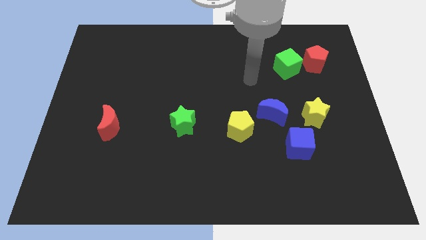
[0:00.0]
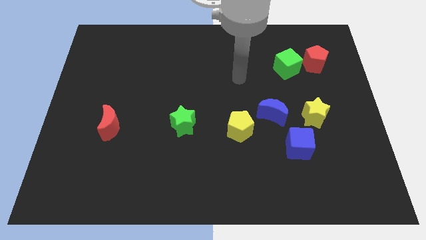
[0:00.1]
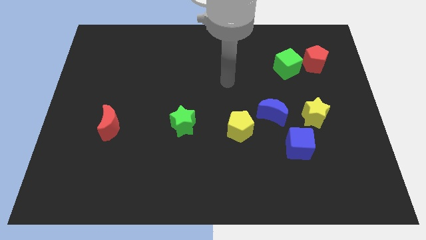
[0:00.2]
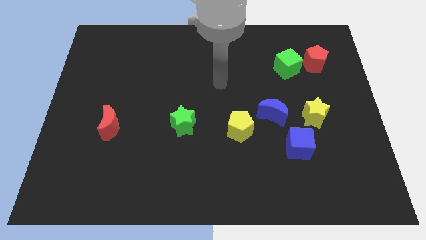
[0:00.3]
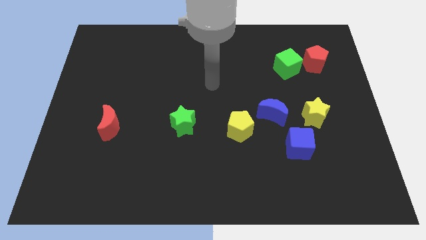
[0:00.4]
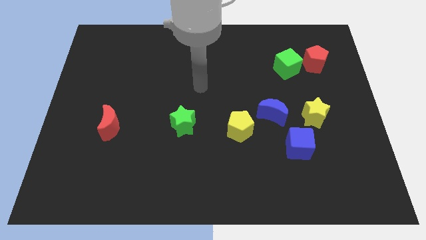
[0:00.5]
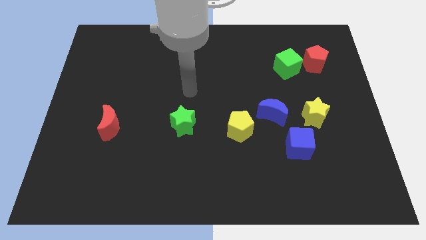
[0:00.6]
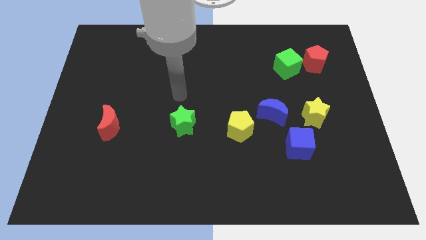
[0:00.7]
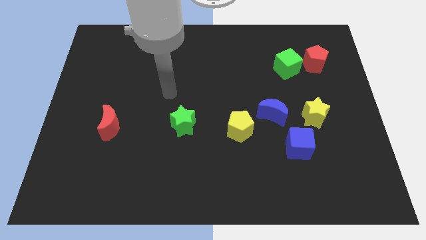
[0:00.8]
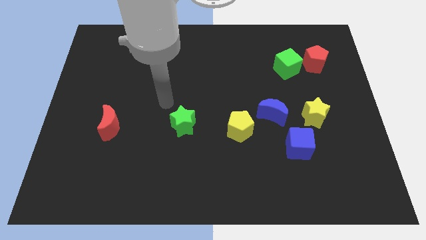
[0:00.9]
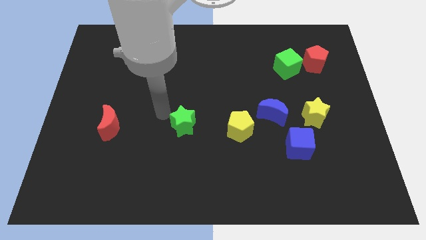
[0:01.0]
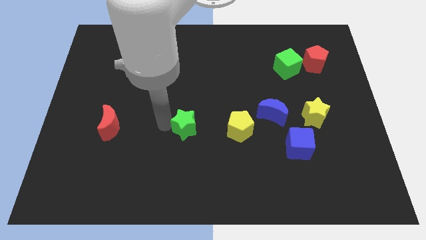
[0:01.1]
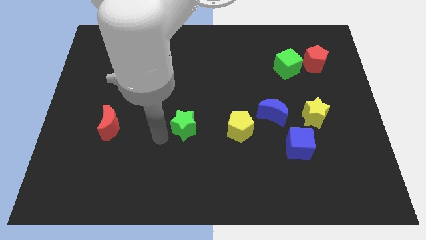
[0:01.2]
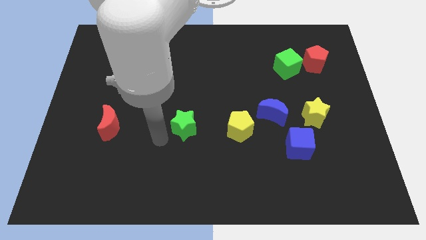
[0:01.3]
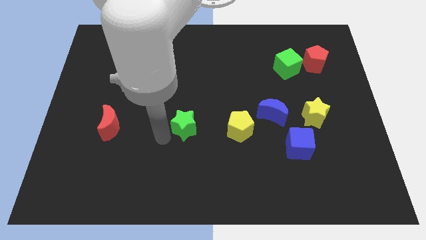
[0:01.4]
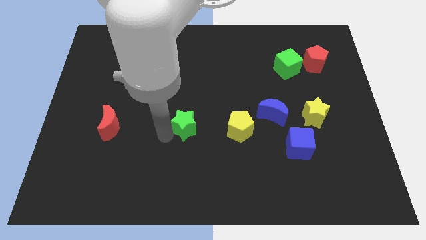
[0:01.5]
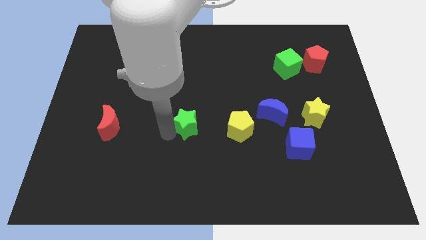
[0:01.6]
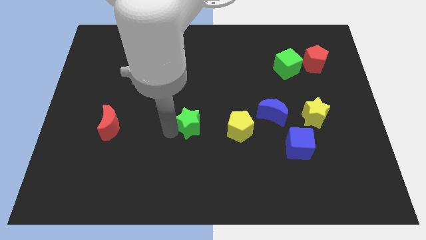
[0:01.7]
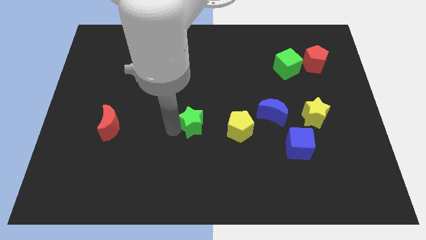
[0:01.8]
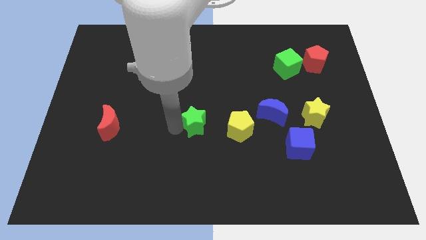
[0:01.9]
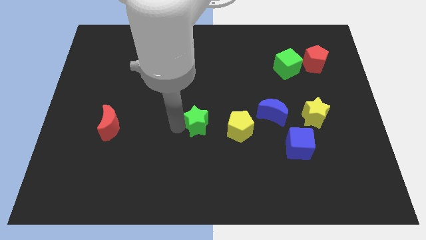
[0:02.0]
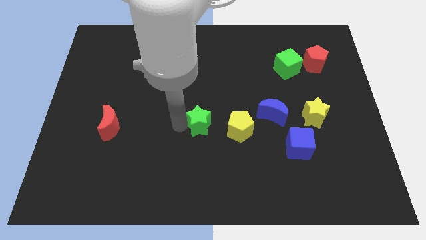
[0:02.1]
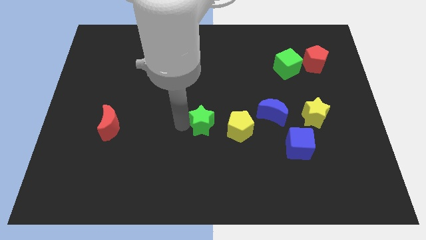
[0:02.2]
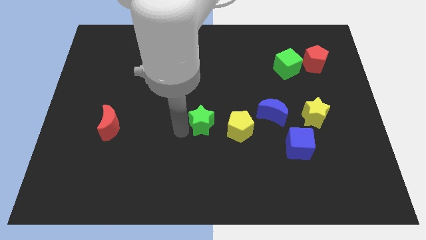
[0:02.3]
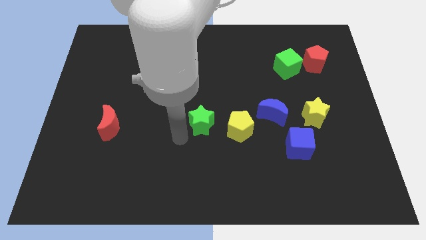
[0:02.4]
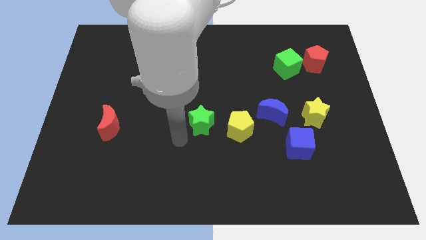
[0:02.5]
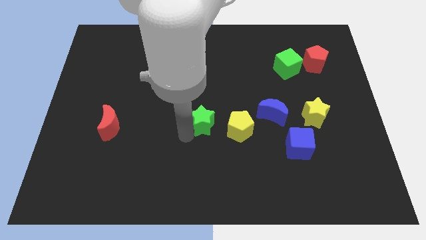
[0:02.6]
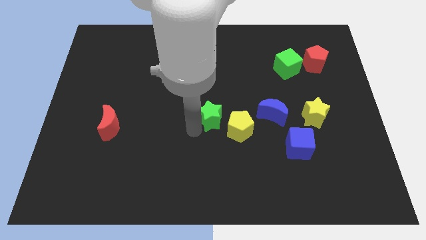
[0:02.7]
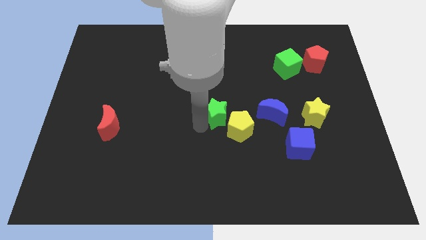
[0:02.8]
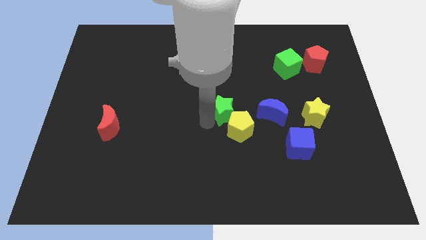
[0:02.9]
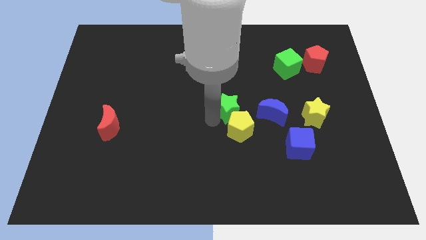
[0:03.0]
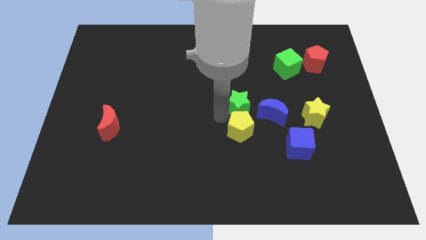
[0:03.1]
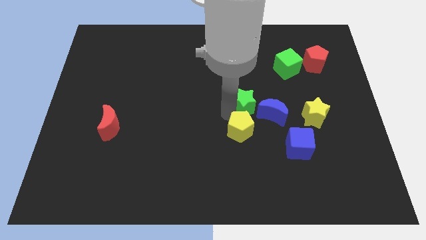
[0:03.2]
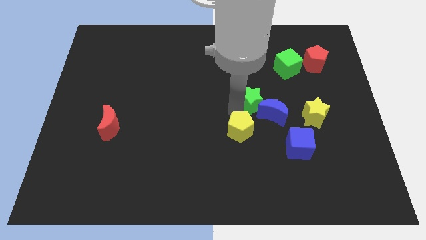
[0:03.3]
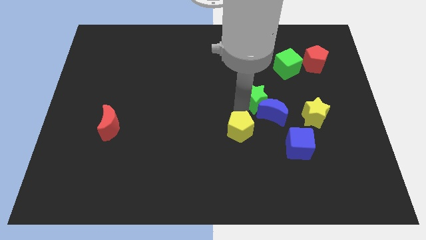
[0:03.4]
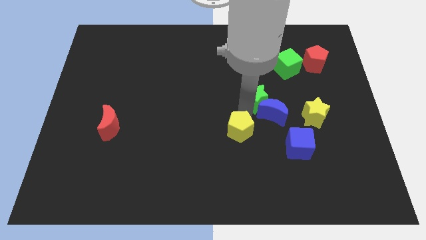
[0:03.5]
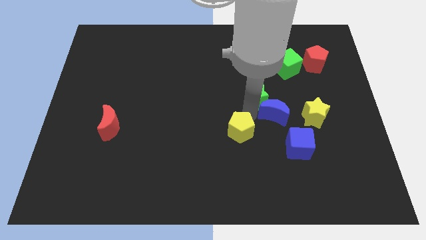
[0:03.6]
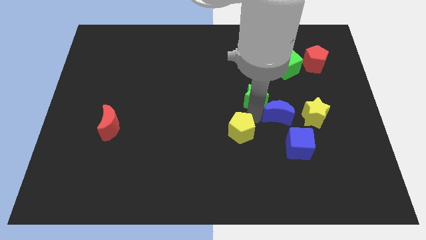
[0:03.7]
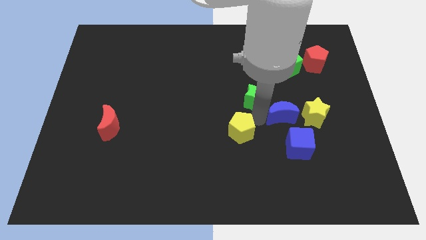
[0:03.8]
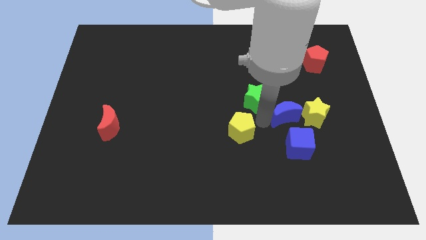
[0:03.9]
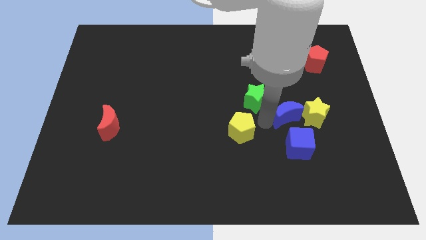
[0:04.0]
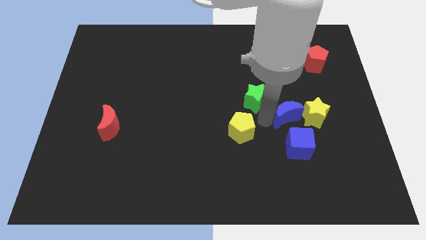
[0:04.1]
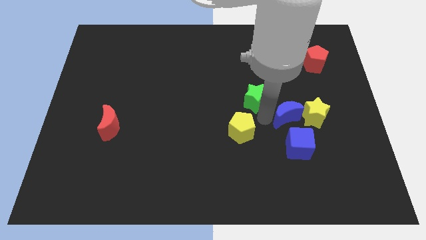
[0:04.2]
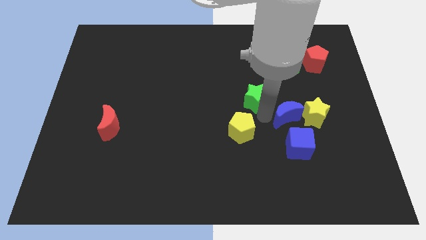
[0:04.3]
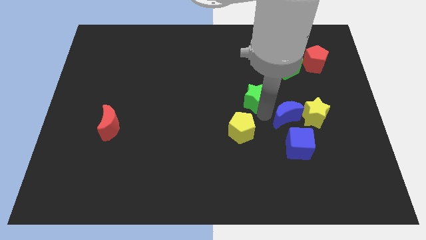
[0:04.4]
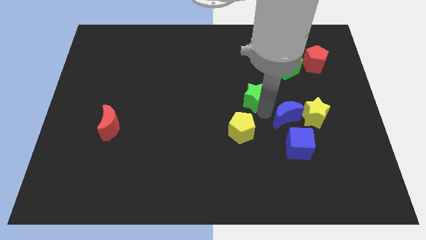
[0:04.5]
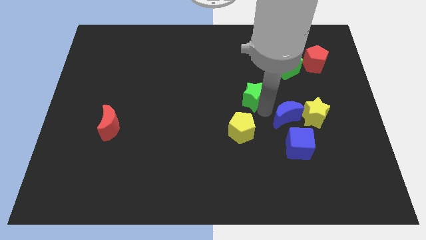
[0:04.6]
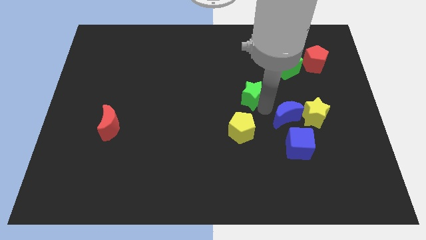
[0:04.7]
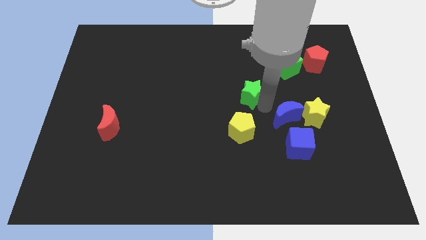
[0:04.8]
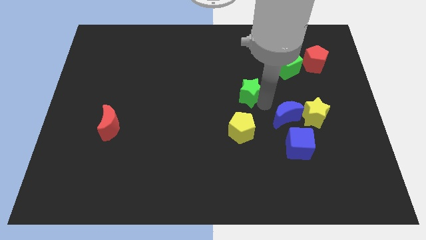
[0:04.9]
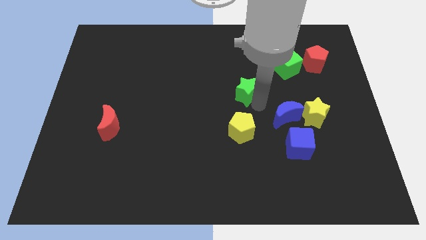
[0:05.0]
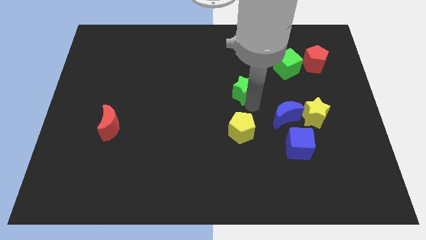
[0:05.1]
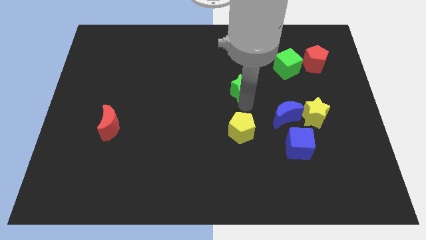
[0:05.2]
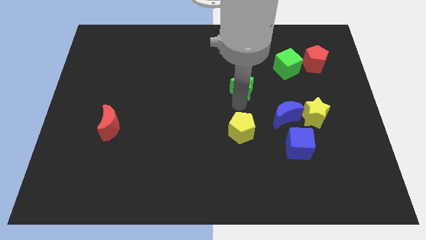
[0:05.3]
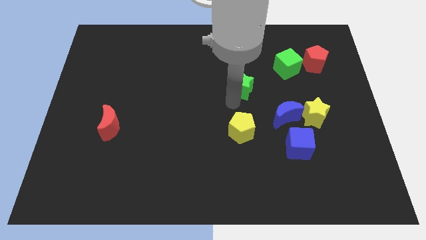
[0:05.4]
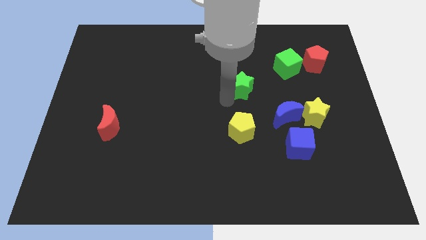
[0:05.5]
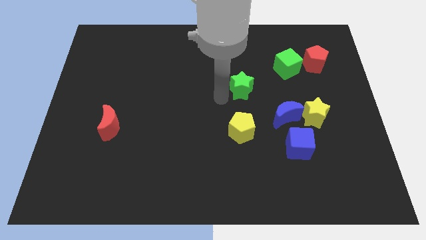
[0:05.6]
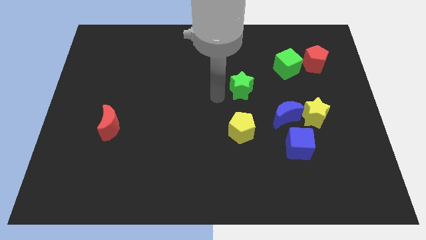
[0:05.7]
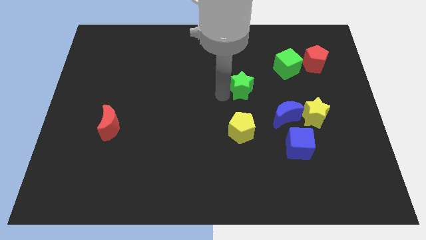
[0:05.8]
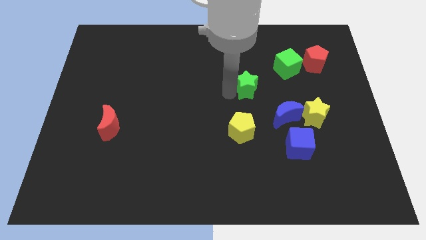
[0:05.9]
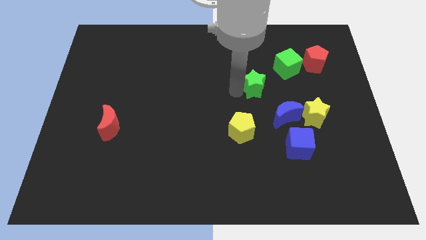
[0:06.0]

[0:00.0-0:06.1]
move the green star diagonally down and to the left of the green cube

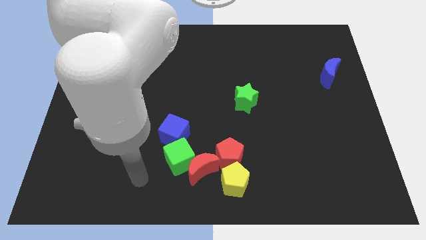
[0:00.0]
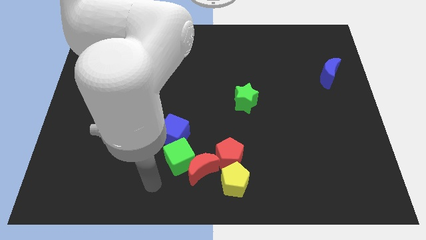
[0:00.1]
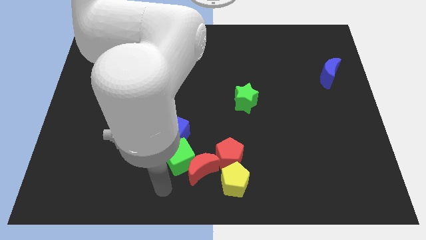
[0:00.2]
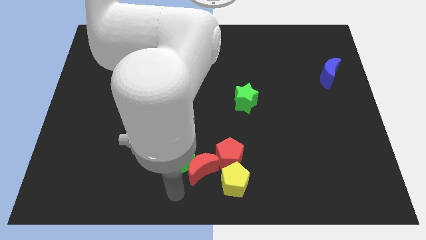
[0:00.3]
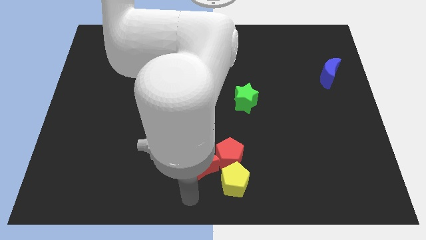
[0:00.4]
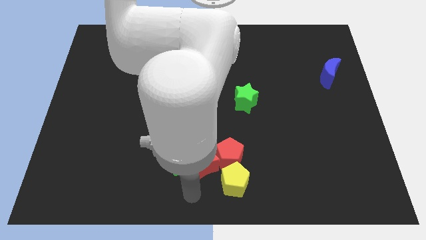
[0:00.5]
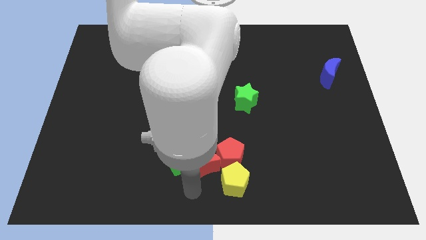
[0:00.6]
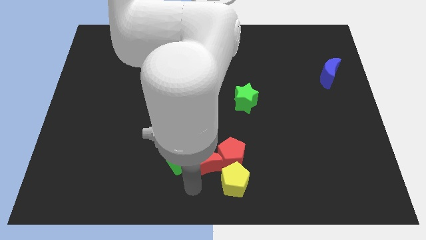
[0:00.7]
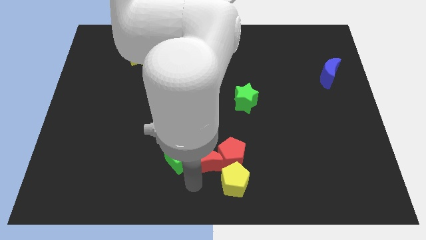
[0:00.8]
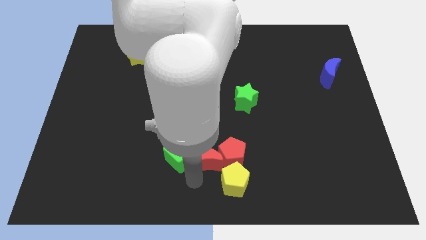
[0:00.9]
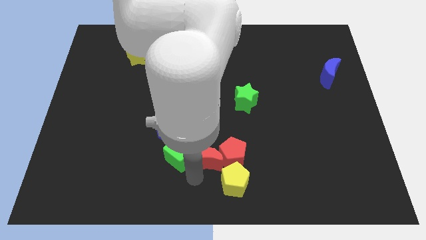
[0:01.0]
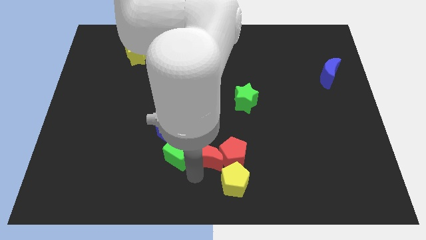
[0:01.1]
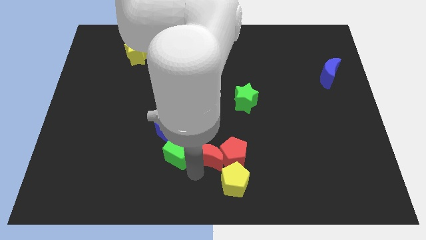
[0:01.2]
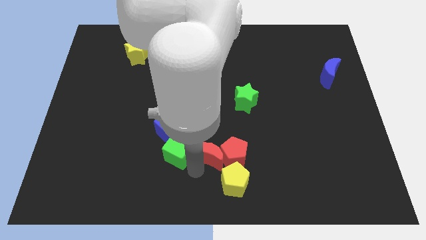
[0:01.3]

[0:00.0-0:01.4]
put the red moon above the yellow pentagon
